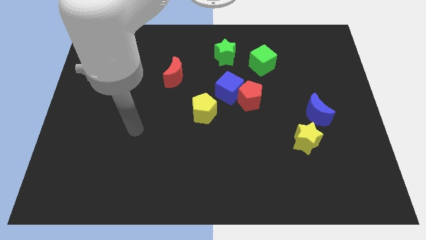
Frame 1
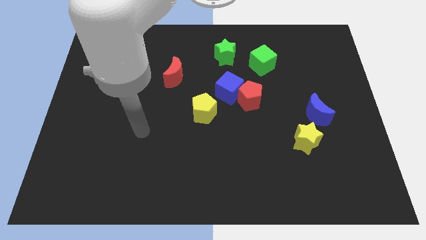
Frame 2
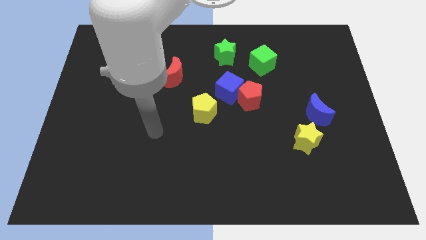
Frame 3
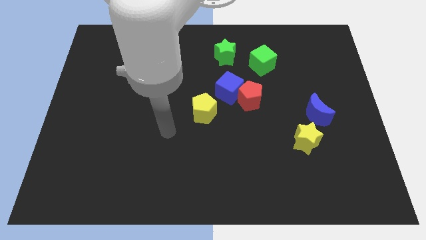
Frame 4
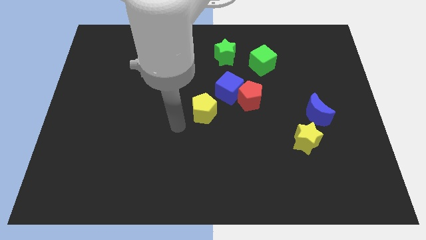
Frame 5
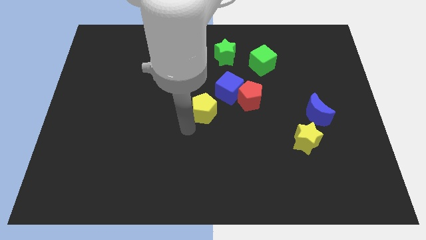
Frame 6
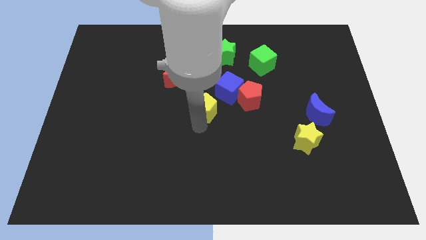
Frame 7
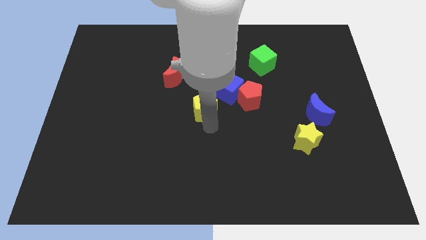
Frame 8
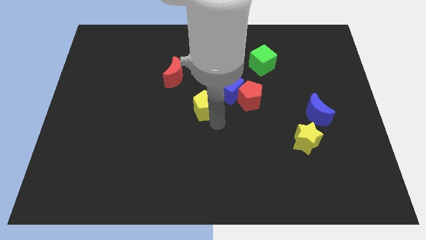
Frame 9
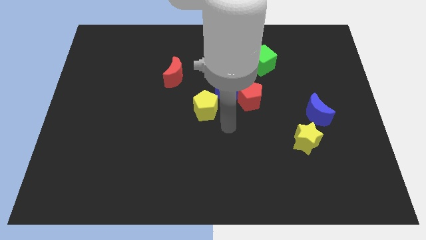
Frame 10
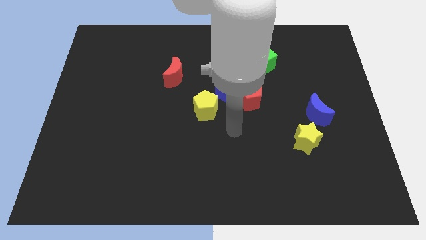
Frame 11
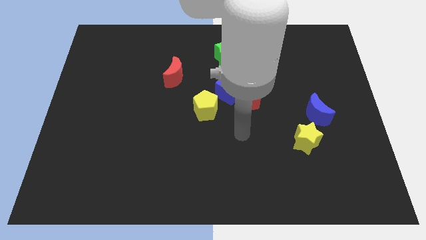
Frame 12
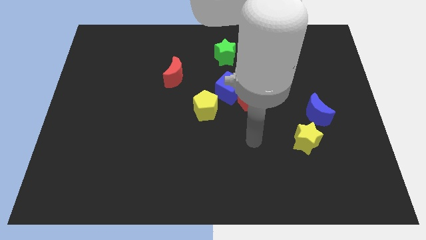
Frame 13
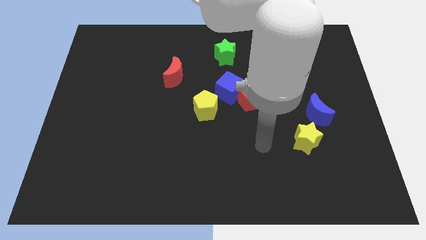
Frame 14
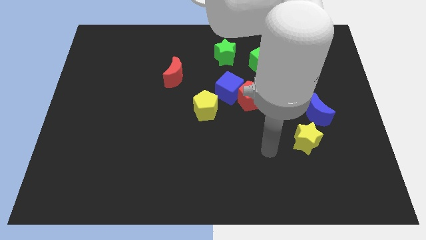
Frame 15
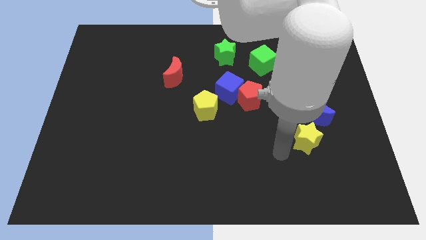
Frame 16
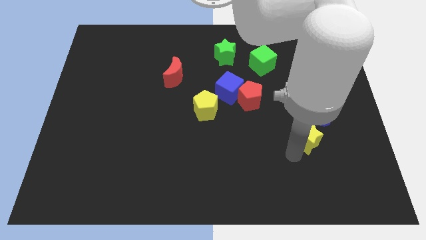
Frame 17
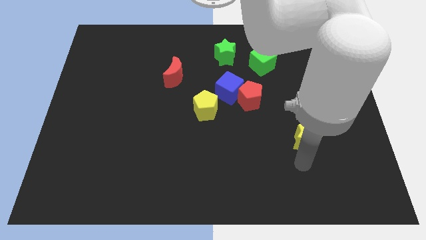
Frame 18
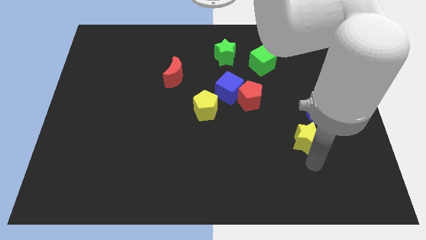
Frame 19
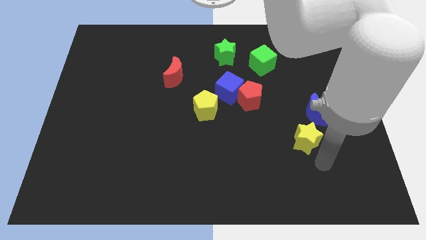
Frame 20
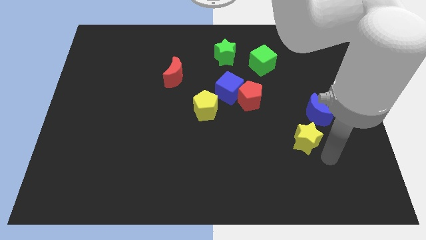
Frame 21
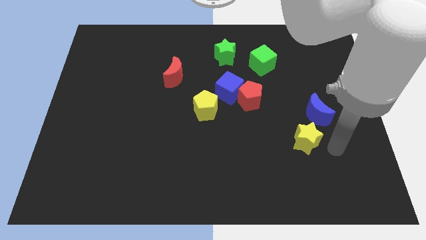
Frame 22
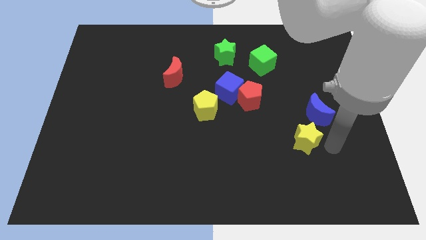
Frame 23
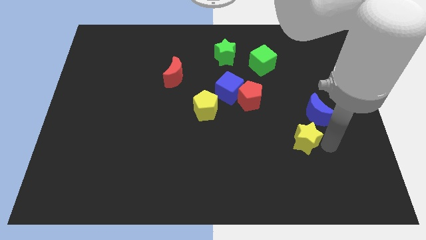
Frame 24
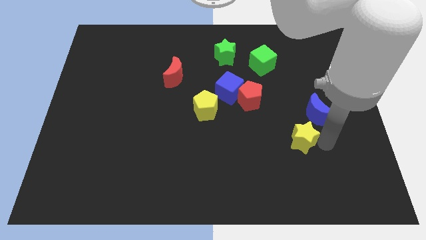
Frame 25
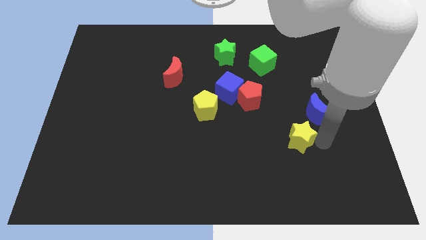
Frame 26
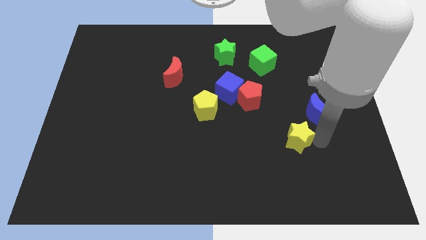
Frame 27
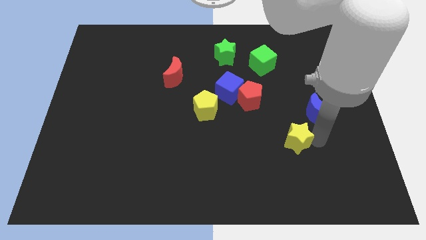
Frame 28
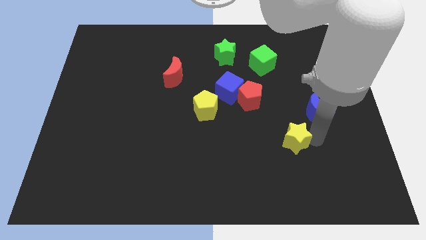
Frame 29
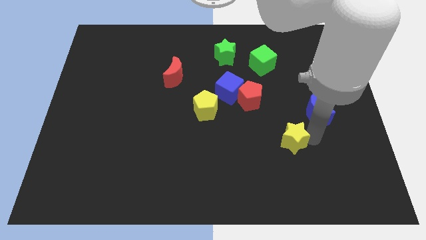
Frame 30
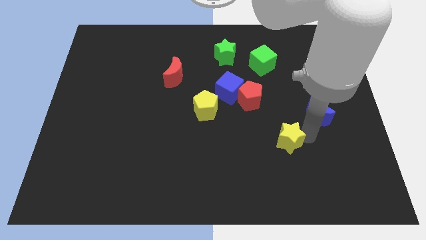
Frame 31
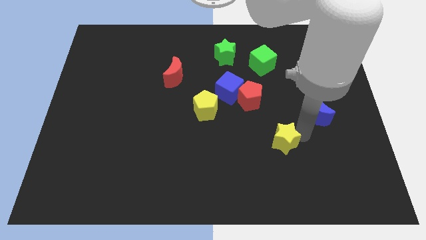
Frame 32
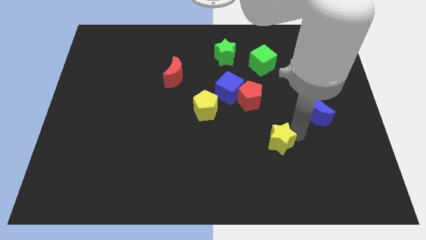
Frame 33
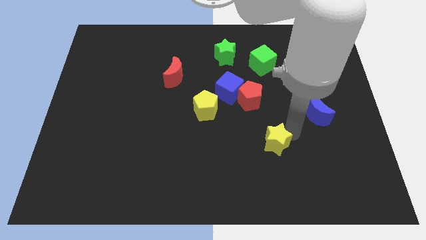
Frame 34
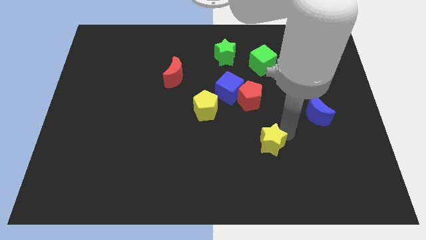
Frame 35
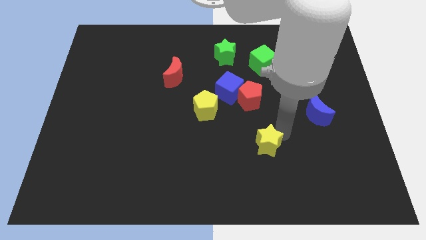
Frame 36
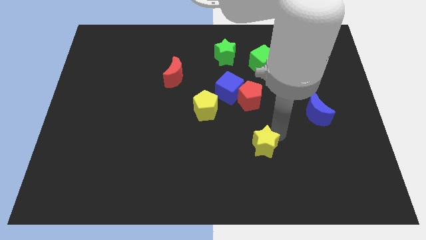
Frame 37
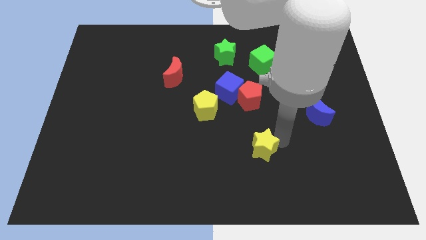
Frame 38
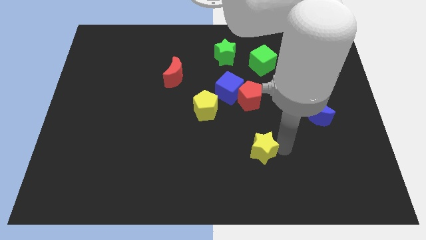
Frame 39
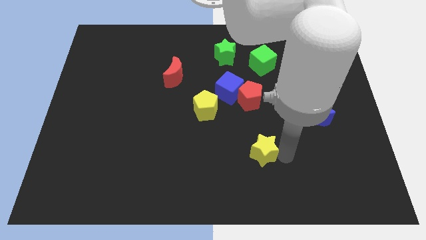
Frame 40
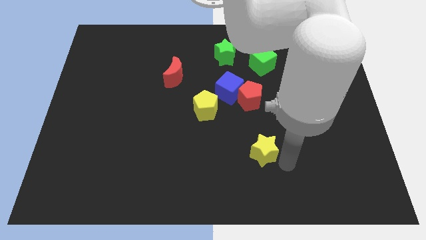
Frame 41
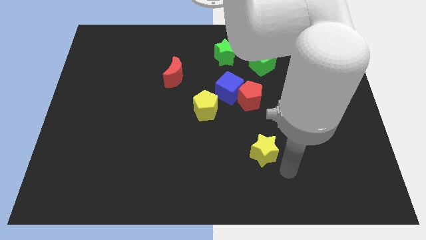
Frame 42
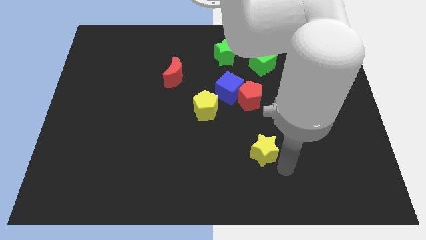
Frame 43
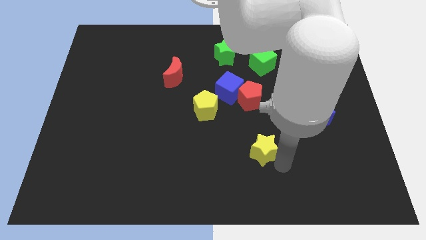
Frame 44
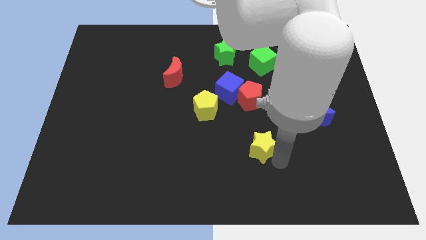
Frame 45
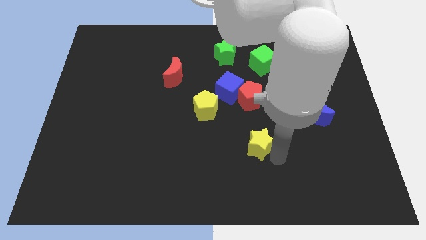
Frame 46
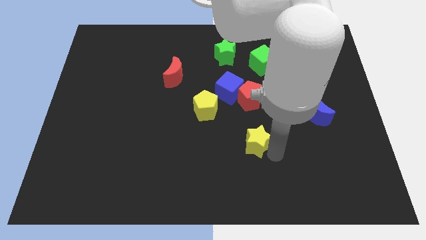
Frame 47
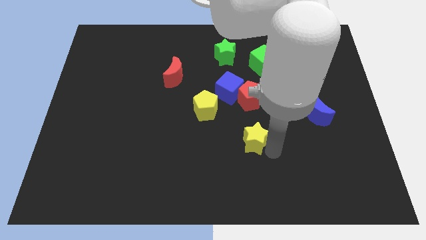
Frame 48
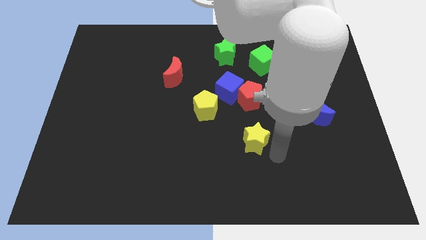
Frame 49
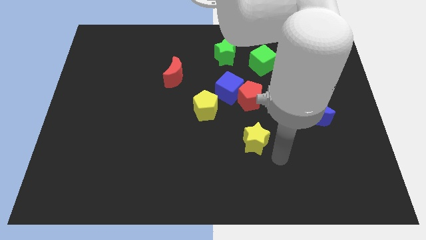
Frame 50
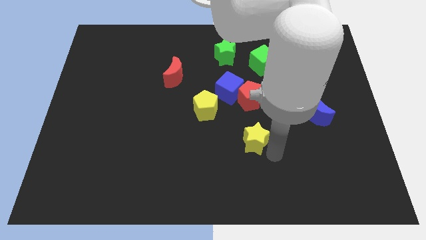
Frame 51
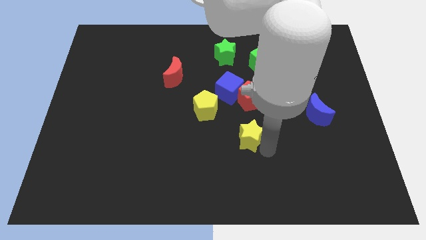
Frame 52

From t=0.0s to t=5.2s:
move the yellow star to the bottom of the blue cube

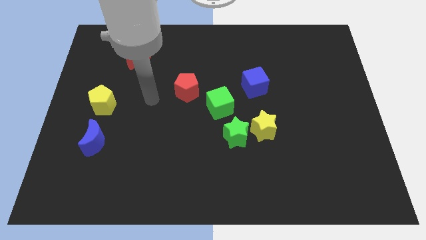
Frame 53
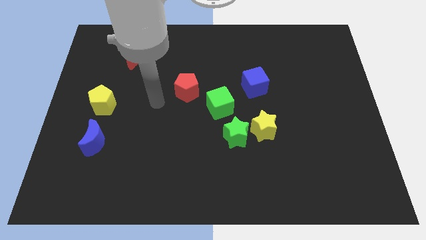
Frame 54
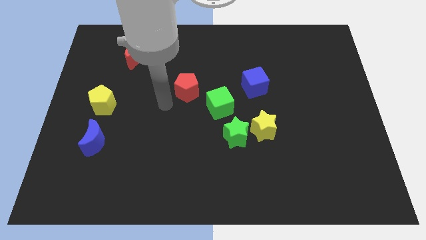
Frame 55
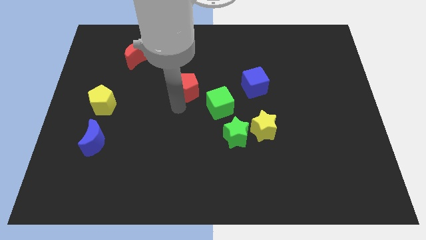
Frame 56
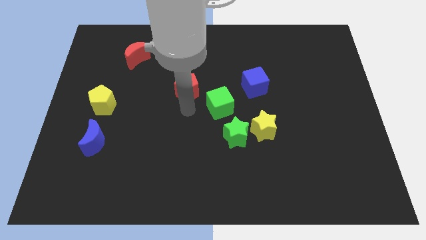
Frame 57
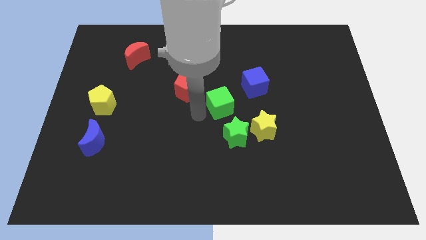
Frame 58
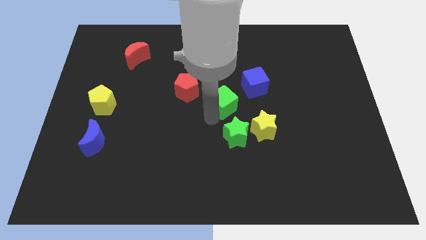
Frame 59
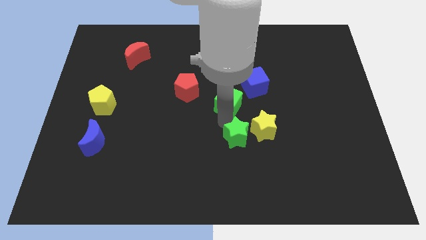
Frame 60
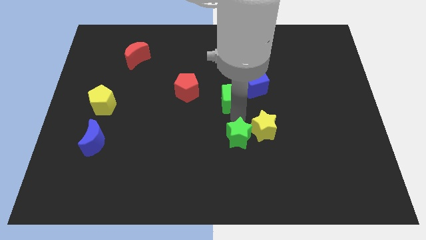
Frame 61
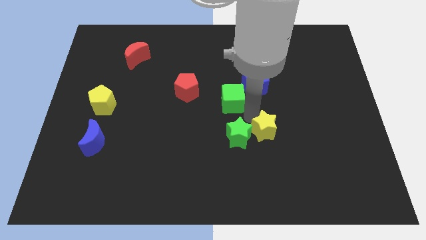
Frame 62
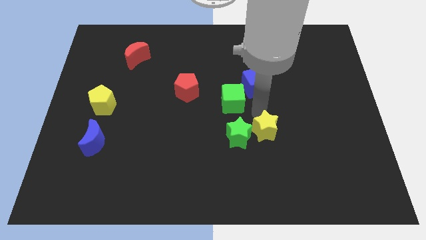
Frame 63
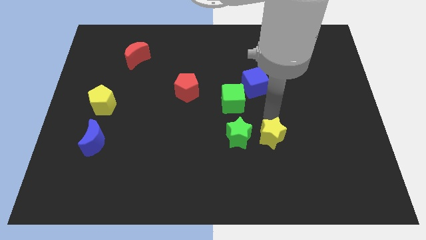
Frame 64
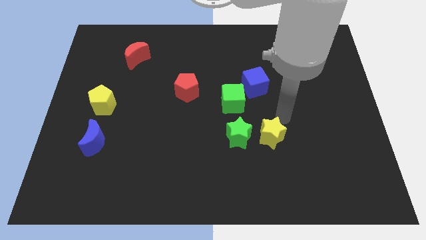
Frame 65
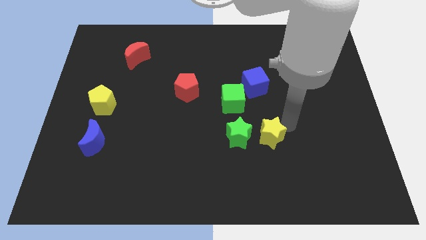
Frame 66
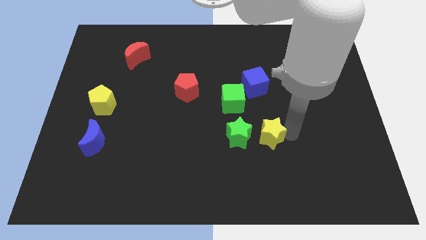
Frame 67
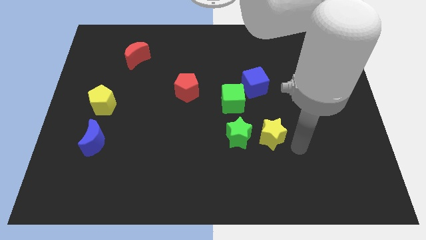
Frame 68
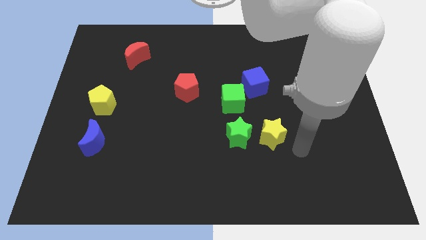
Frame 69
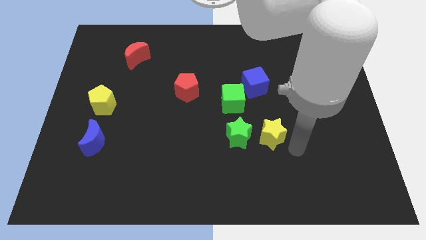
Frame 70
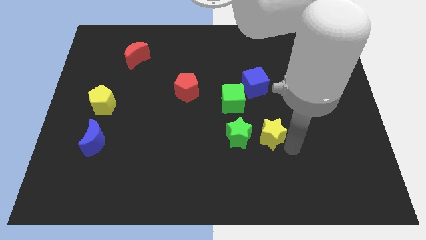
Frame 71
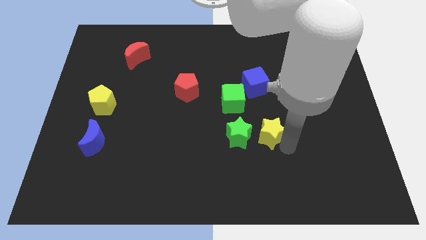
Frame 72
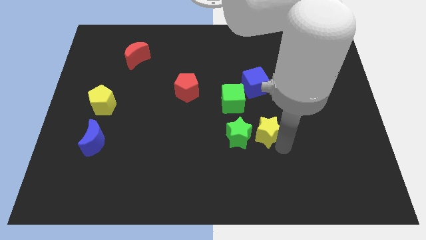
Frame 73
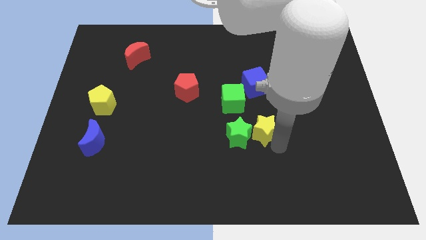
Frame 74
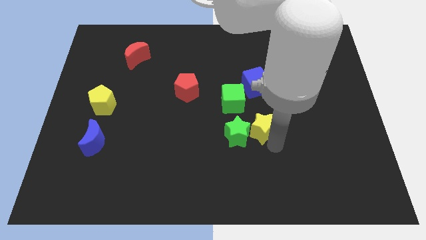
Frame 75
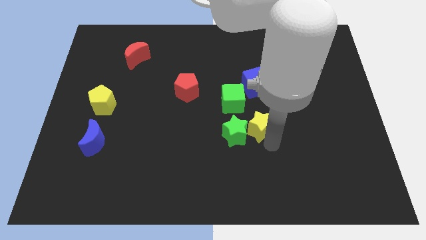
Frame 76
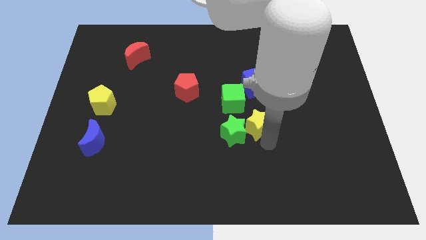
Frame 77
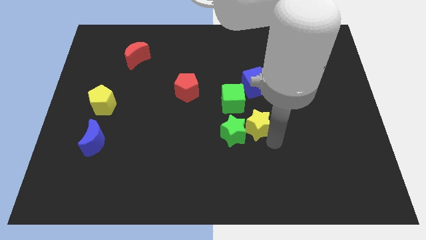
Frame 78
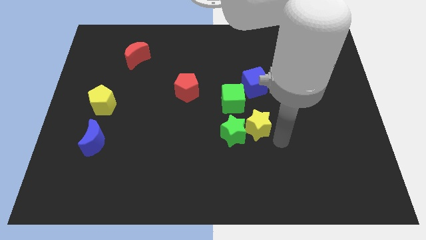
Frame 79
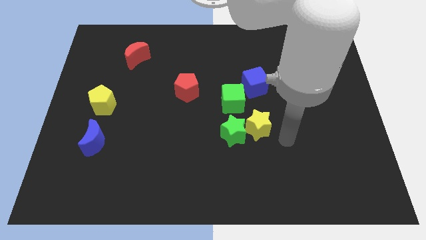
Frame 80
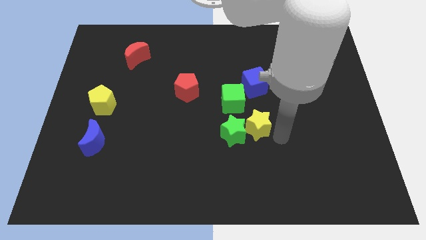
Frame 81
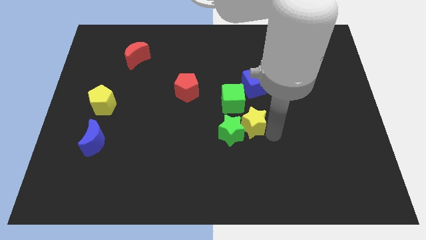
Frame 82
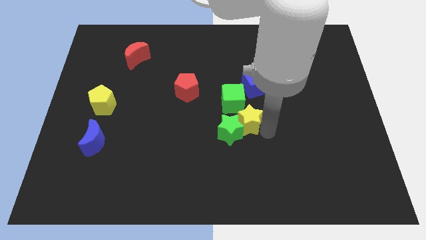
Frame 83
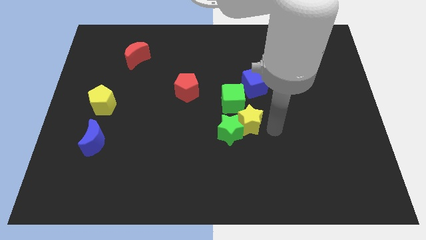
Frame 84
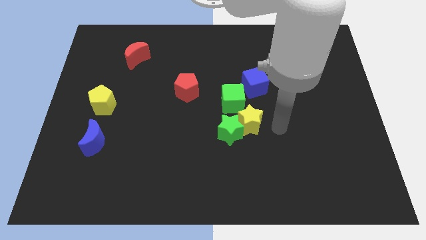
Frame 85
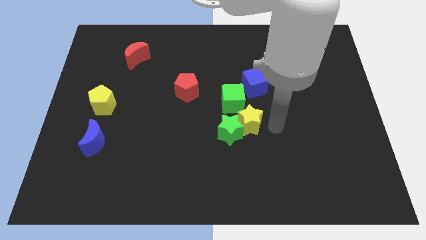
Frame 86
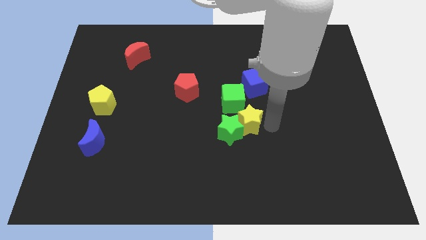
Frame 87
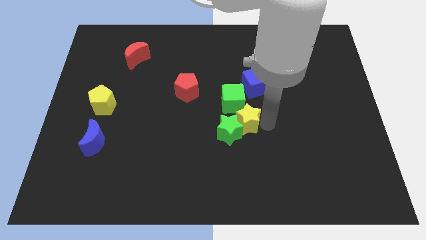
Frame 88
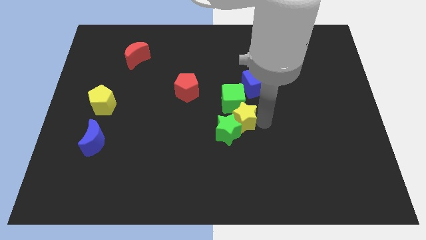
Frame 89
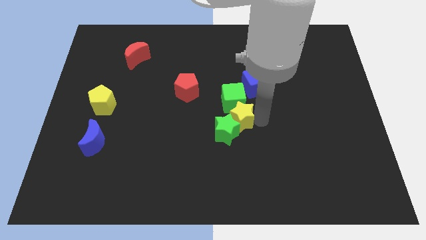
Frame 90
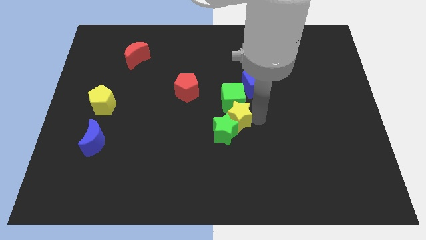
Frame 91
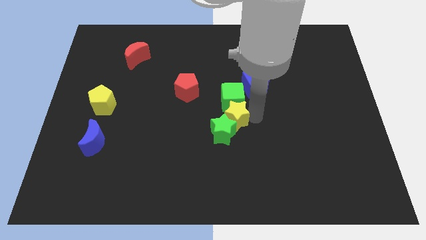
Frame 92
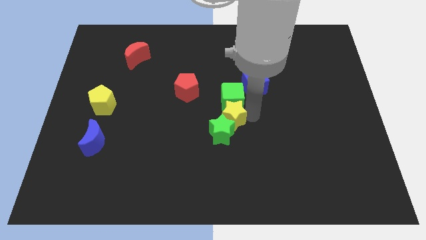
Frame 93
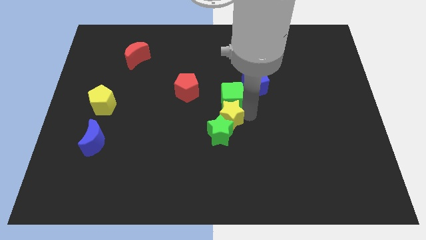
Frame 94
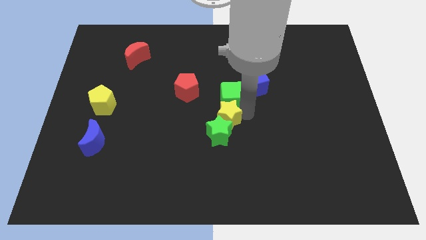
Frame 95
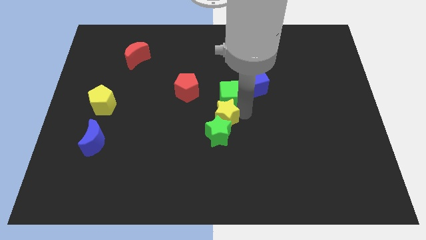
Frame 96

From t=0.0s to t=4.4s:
push the yellow star diagonally up and to the left of the green star
